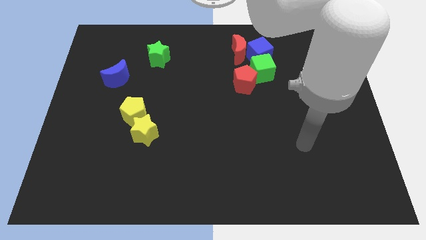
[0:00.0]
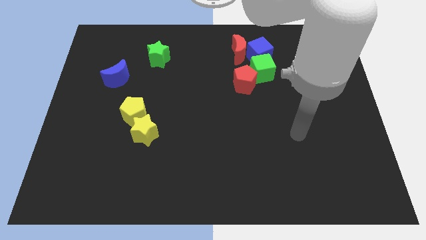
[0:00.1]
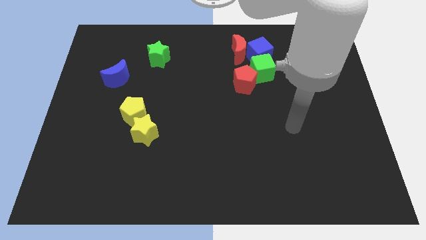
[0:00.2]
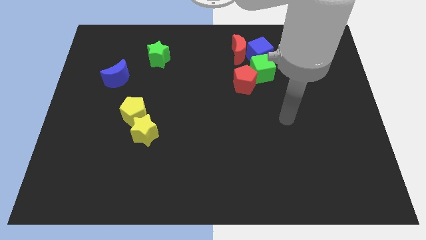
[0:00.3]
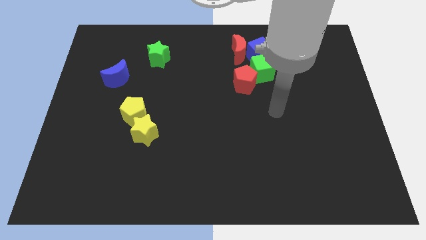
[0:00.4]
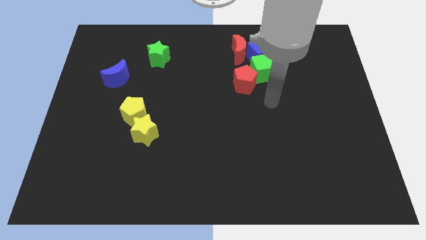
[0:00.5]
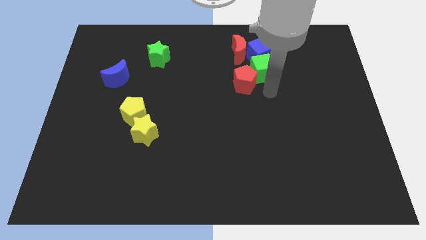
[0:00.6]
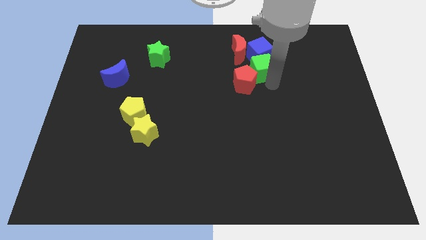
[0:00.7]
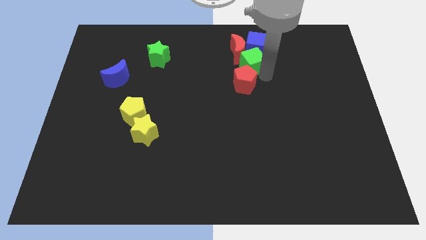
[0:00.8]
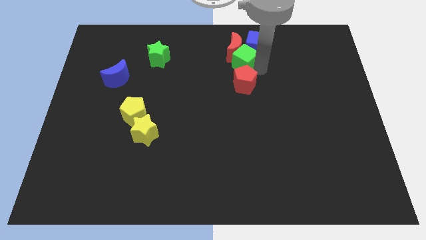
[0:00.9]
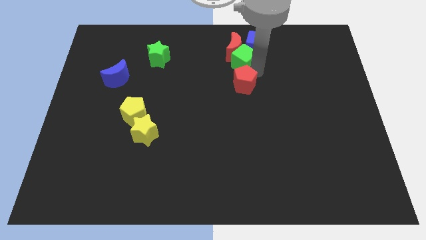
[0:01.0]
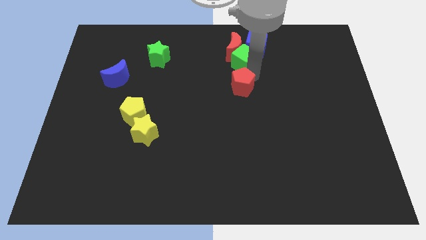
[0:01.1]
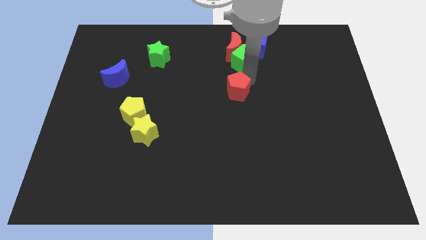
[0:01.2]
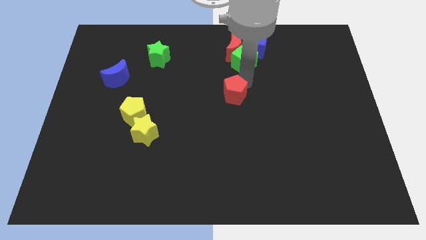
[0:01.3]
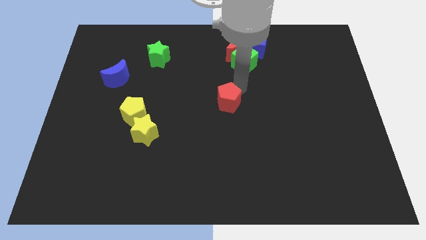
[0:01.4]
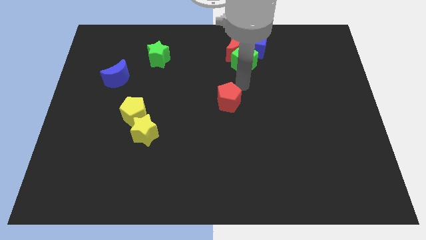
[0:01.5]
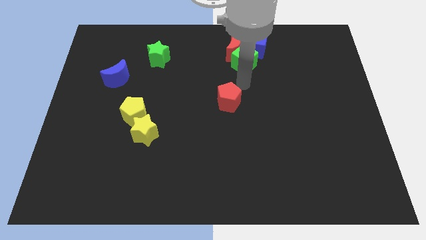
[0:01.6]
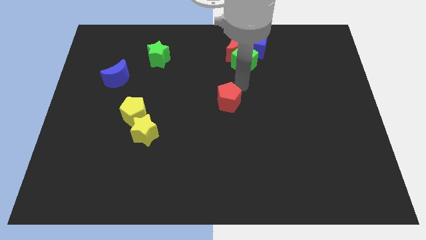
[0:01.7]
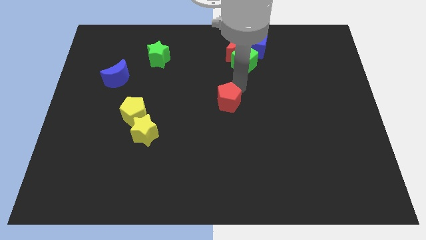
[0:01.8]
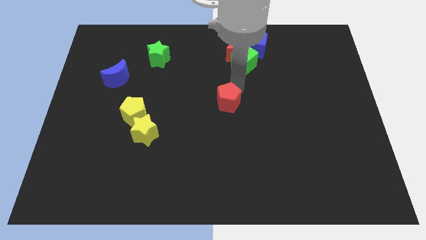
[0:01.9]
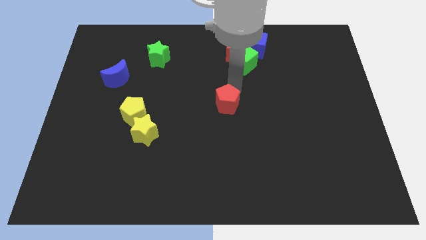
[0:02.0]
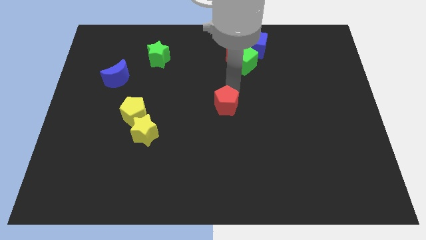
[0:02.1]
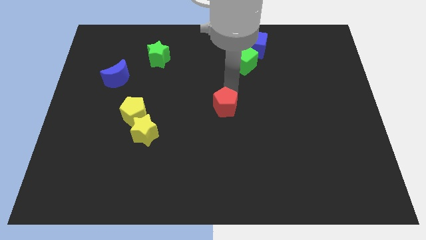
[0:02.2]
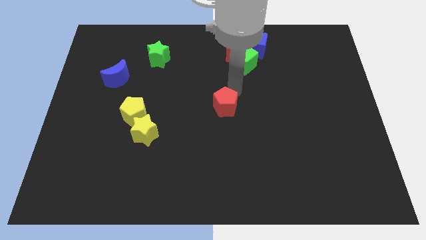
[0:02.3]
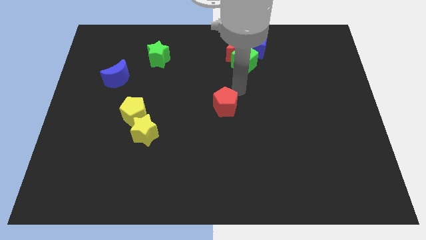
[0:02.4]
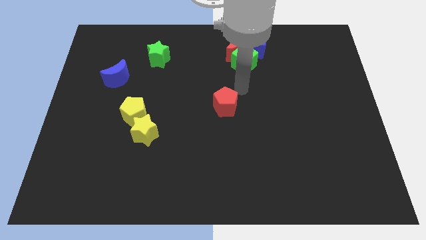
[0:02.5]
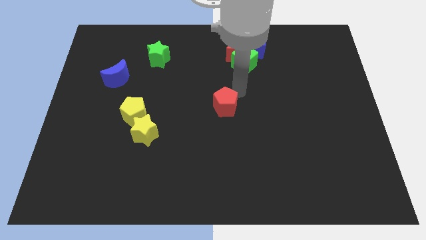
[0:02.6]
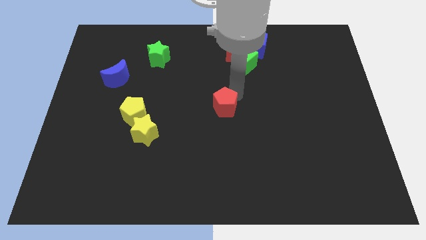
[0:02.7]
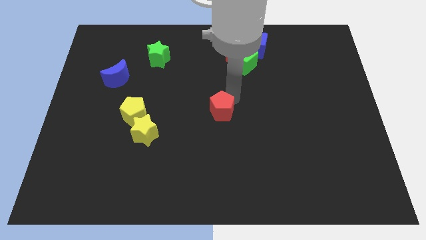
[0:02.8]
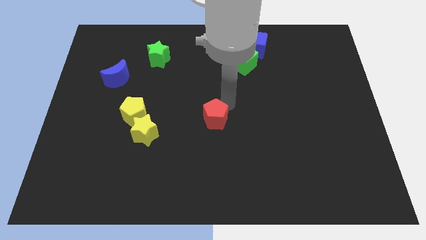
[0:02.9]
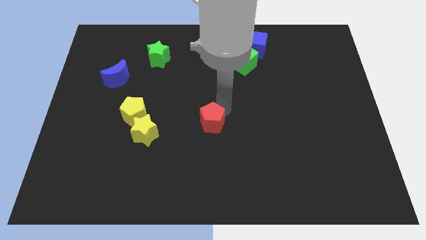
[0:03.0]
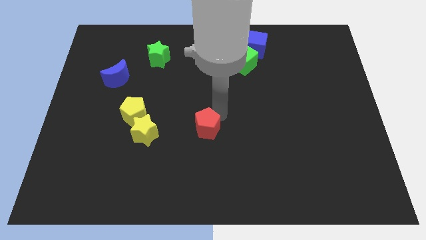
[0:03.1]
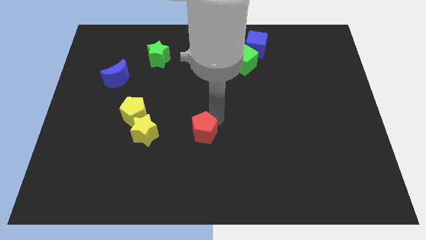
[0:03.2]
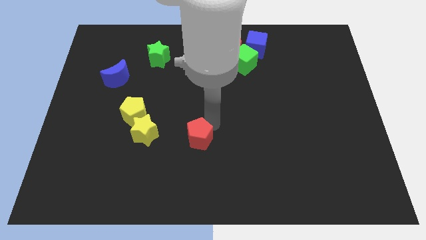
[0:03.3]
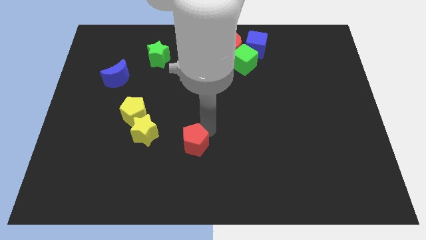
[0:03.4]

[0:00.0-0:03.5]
move the red pentagon diagonally downwards and left

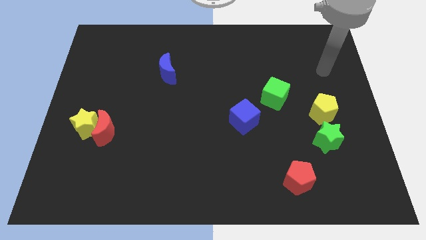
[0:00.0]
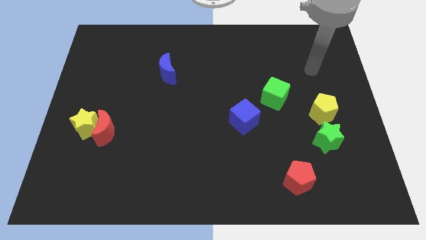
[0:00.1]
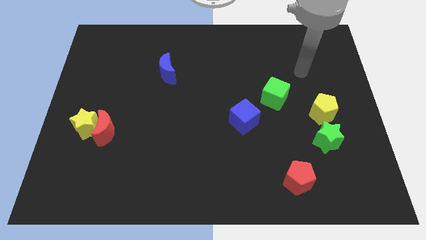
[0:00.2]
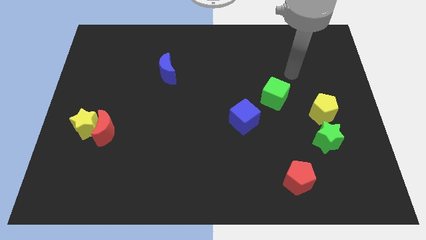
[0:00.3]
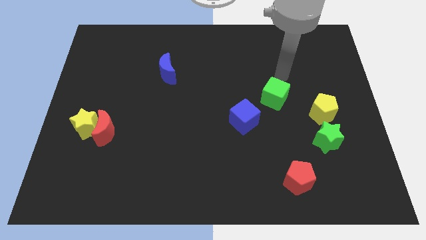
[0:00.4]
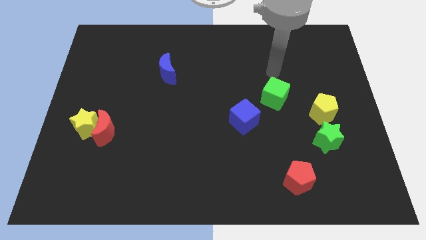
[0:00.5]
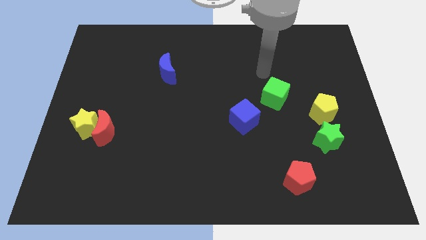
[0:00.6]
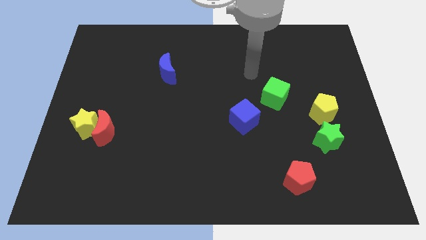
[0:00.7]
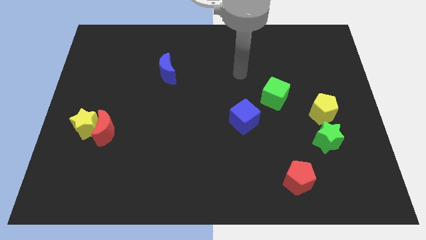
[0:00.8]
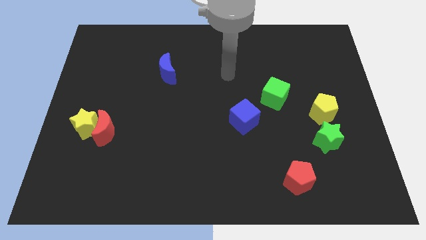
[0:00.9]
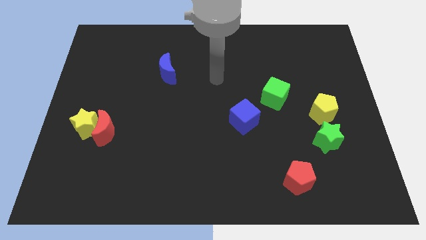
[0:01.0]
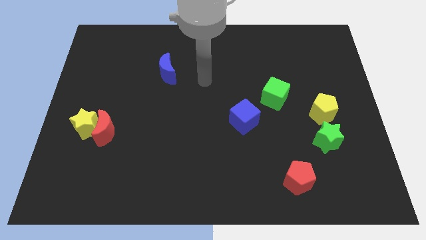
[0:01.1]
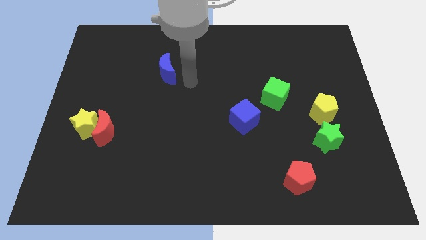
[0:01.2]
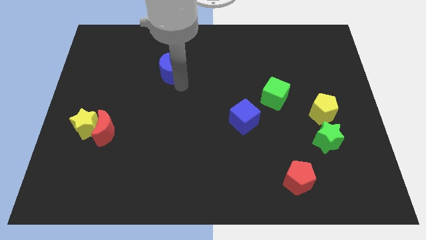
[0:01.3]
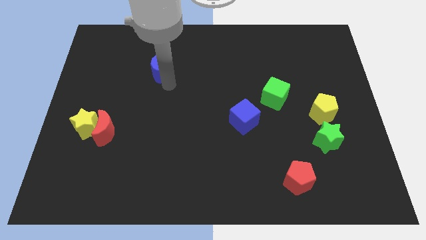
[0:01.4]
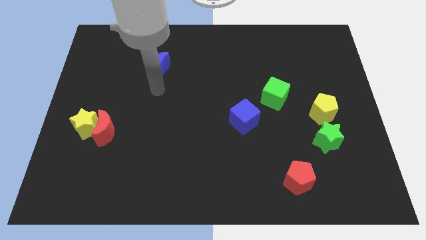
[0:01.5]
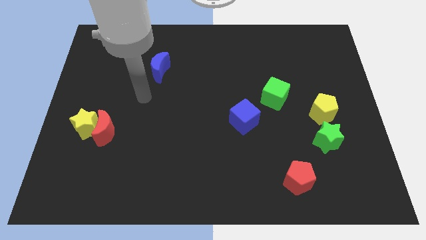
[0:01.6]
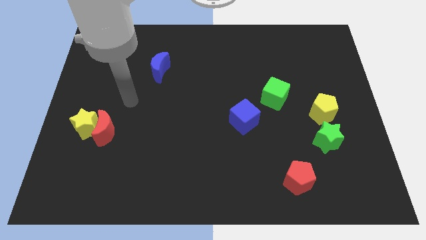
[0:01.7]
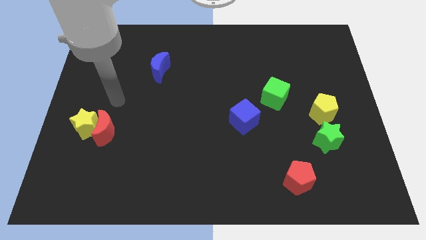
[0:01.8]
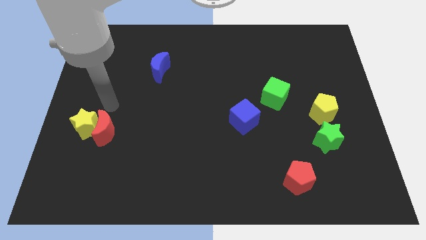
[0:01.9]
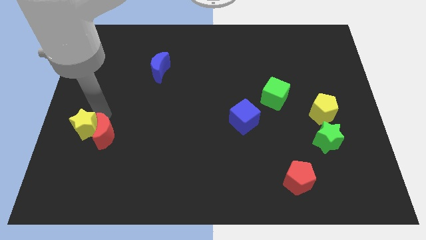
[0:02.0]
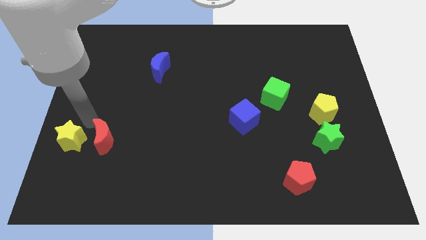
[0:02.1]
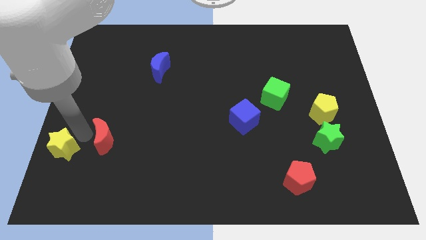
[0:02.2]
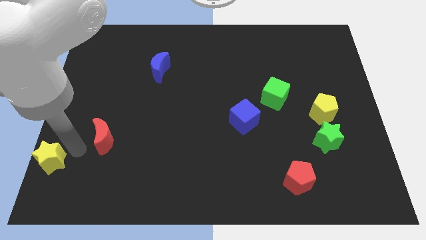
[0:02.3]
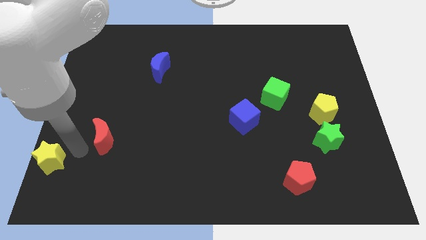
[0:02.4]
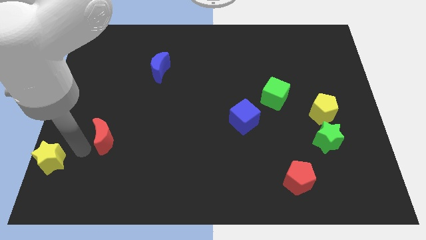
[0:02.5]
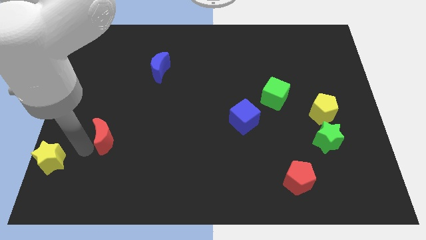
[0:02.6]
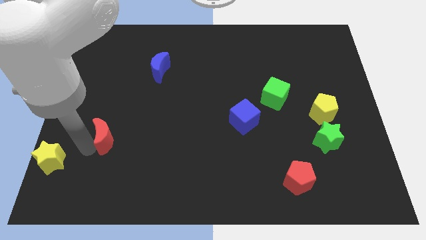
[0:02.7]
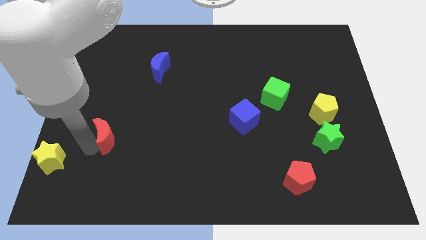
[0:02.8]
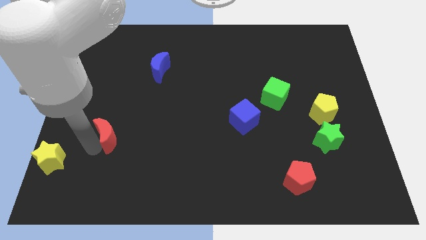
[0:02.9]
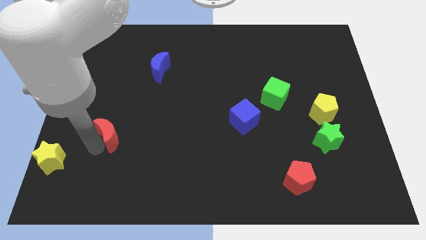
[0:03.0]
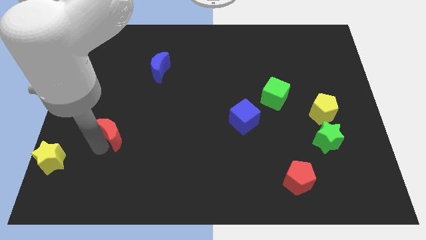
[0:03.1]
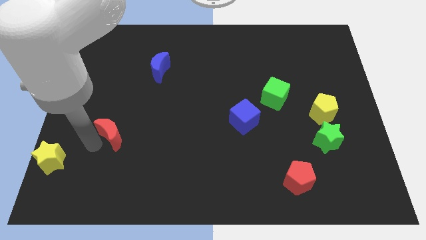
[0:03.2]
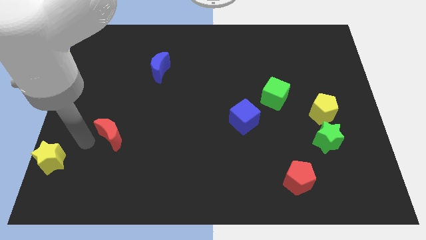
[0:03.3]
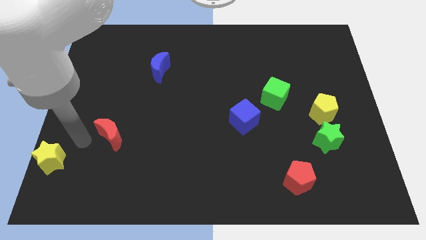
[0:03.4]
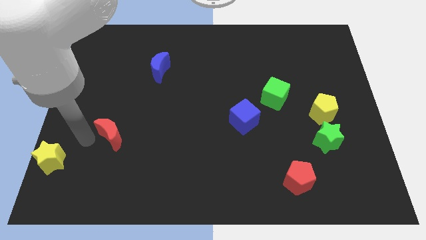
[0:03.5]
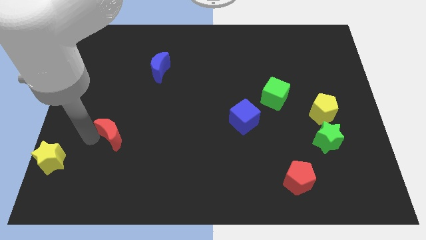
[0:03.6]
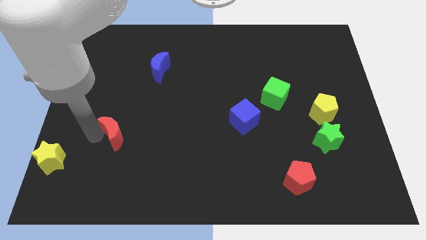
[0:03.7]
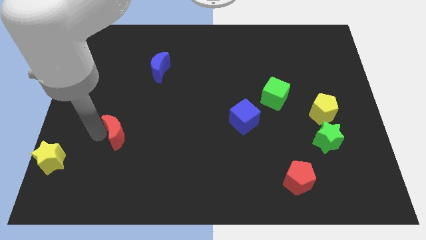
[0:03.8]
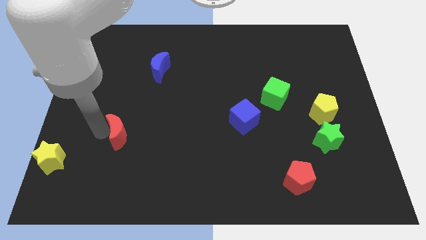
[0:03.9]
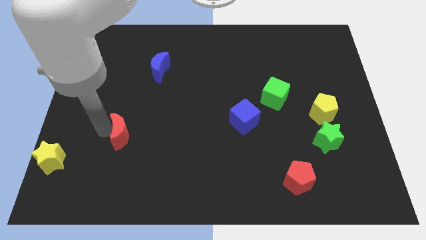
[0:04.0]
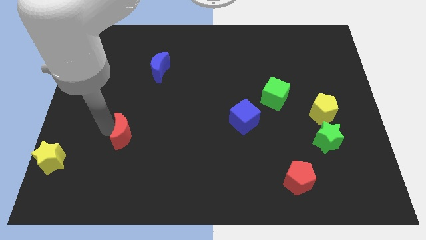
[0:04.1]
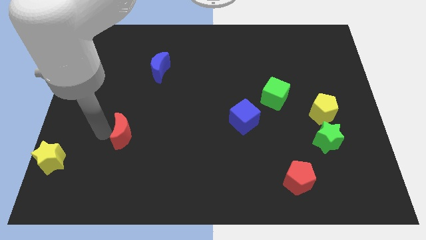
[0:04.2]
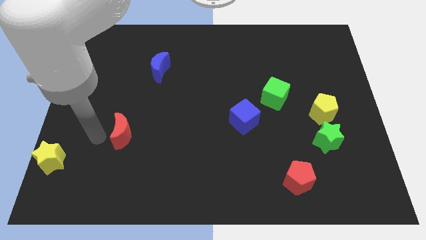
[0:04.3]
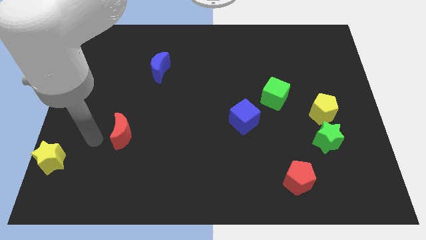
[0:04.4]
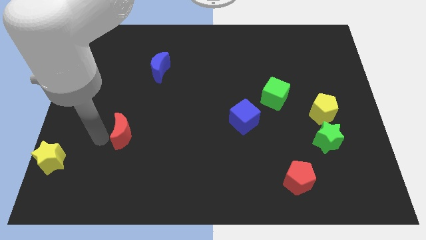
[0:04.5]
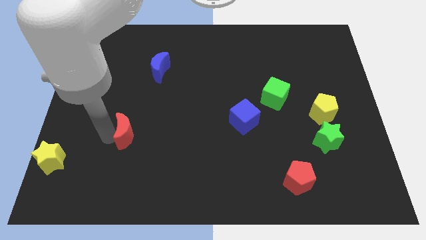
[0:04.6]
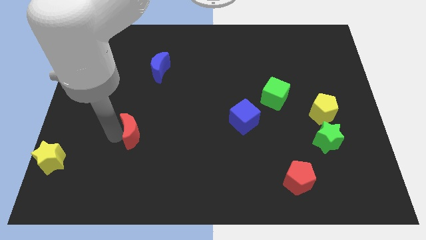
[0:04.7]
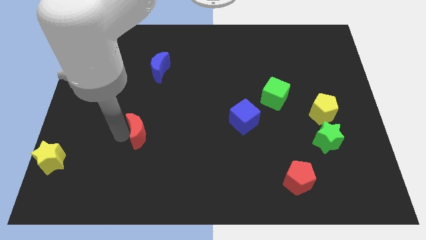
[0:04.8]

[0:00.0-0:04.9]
push the red moon to the right a little bit
